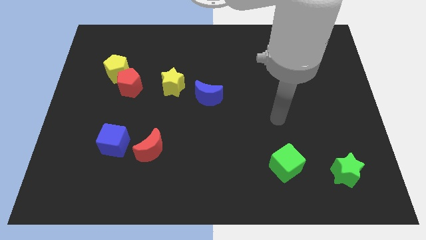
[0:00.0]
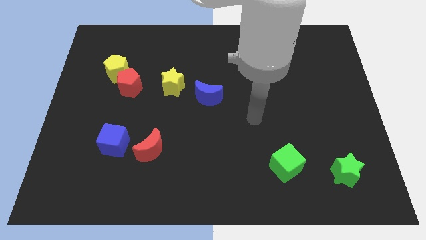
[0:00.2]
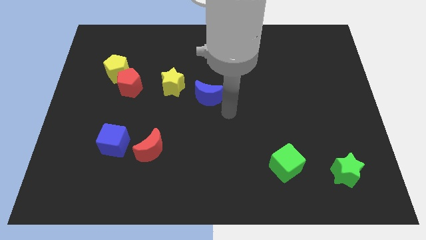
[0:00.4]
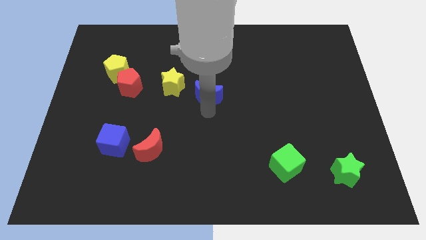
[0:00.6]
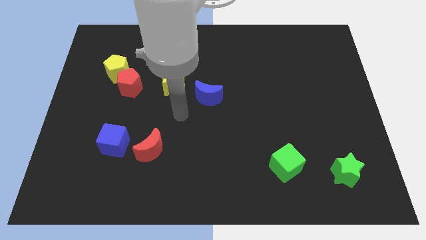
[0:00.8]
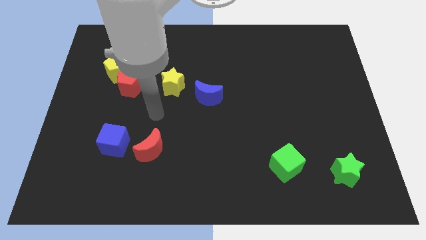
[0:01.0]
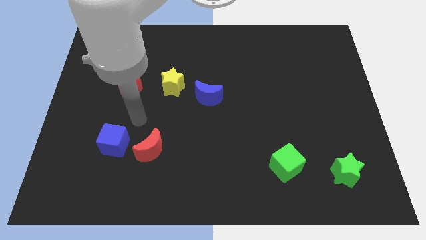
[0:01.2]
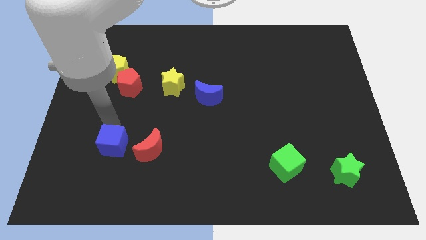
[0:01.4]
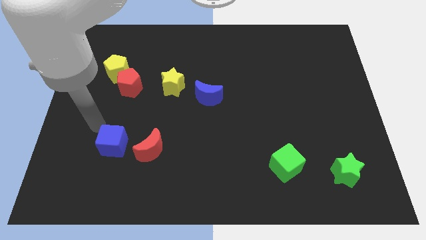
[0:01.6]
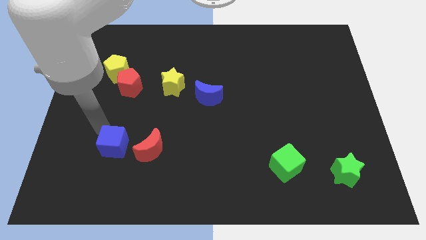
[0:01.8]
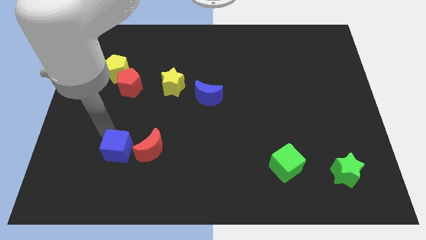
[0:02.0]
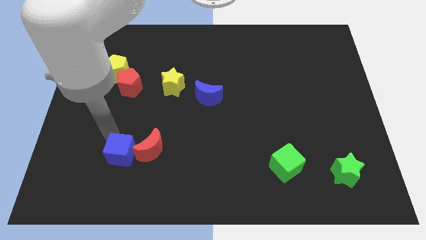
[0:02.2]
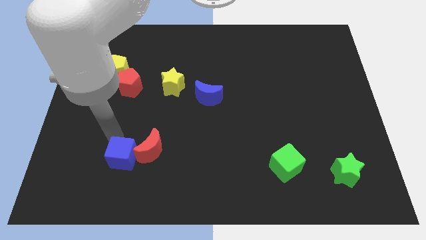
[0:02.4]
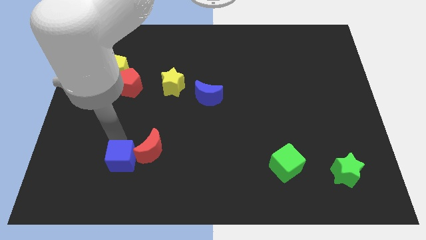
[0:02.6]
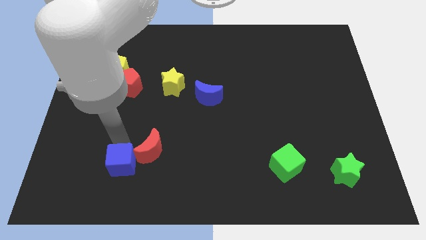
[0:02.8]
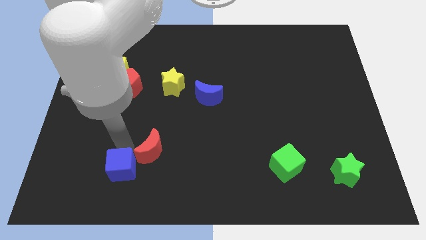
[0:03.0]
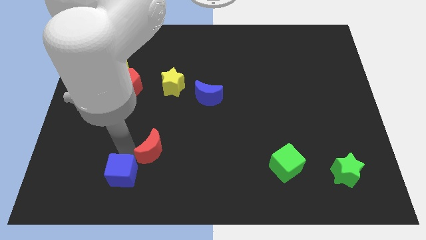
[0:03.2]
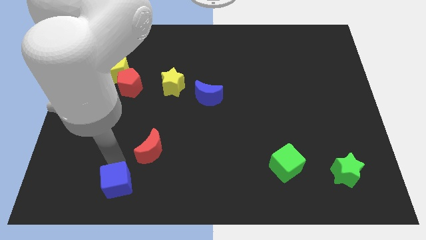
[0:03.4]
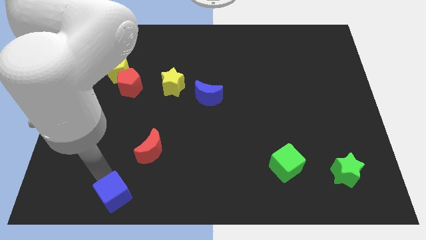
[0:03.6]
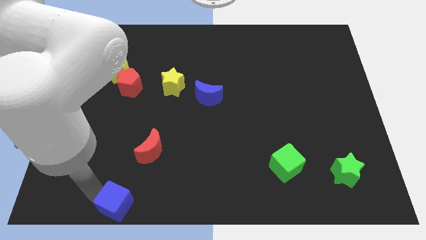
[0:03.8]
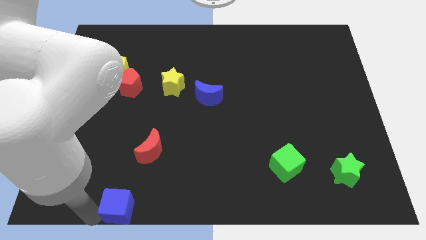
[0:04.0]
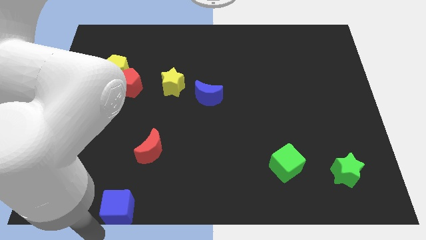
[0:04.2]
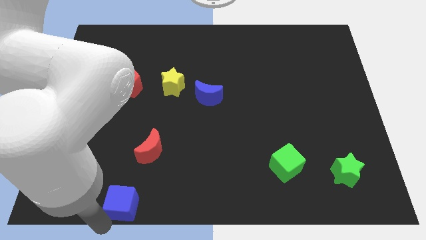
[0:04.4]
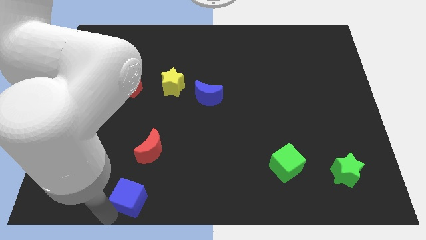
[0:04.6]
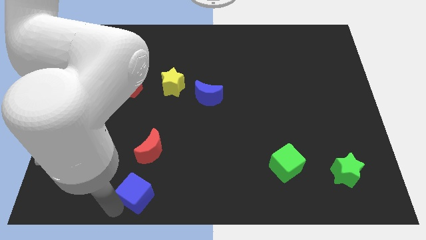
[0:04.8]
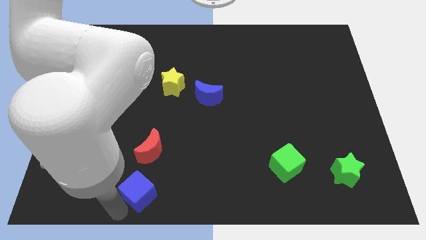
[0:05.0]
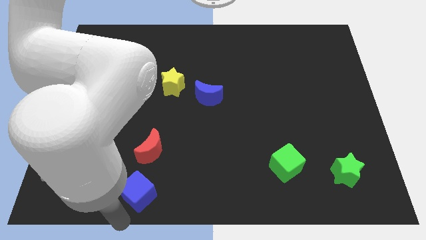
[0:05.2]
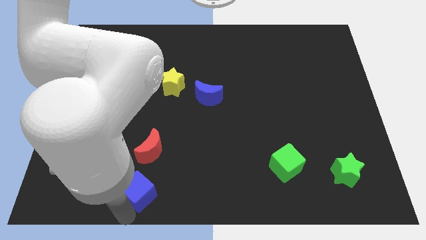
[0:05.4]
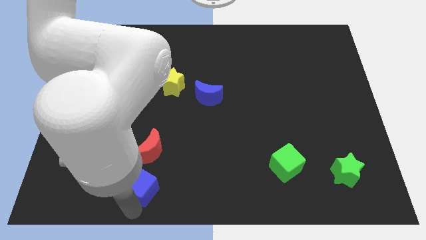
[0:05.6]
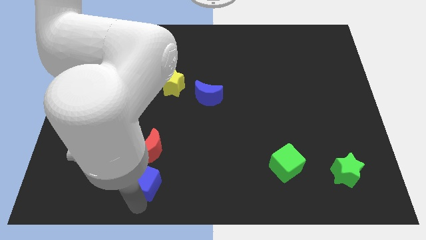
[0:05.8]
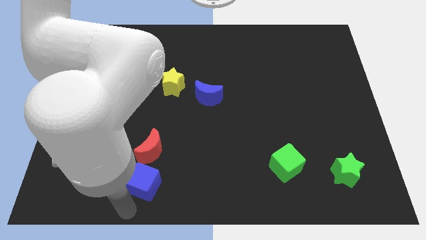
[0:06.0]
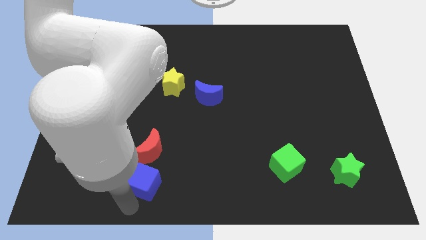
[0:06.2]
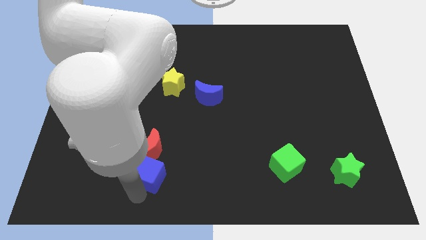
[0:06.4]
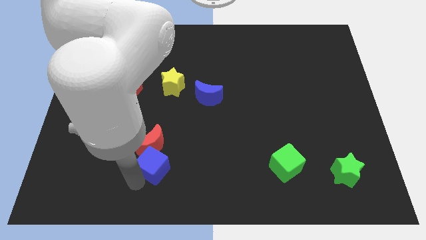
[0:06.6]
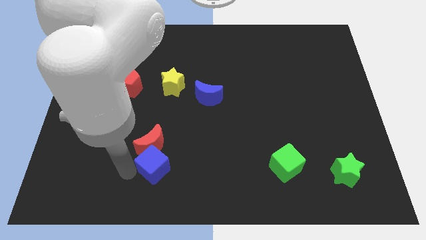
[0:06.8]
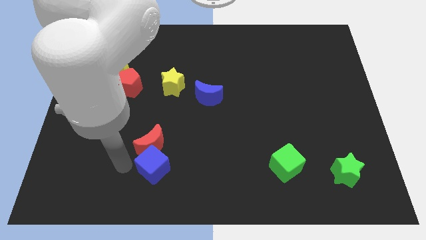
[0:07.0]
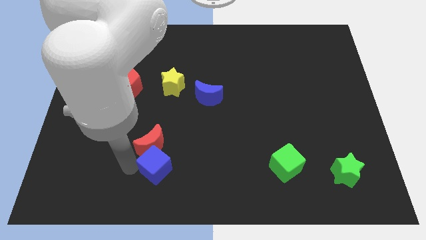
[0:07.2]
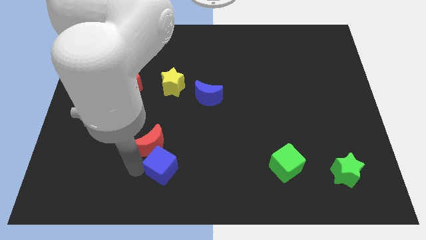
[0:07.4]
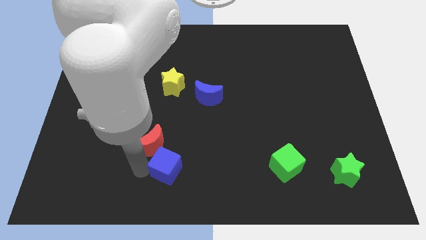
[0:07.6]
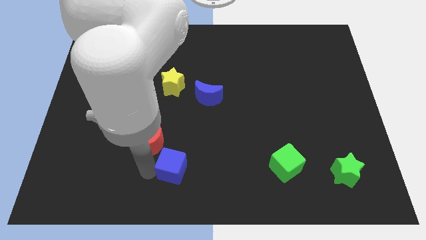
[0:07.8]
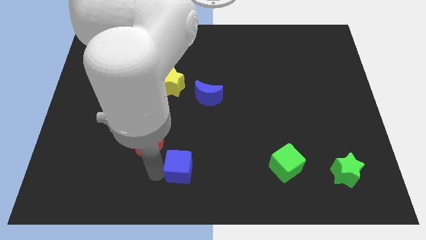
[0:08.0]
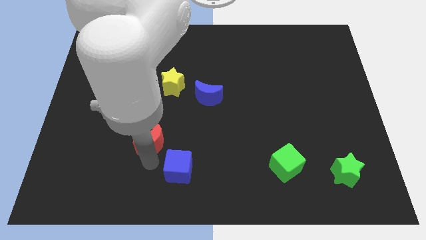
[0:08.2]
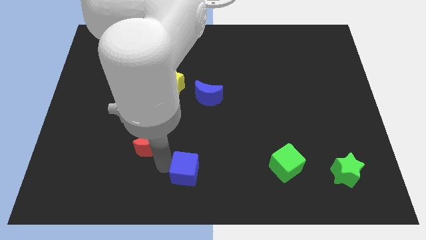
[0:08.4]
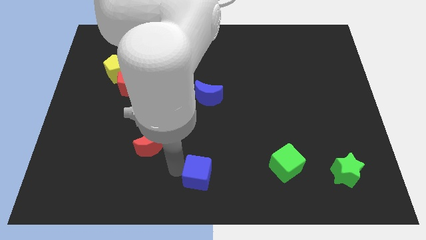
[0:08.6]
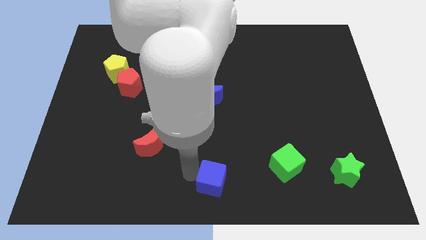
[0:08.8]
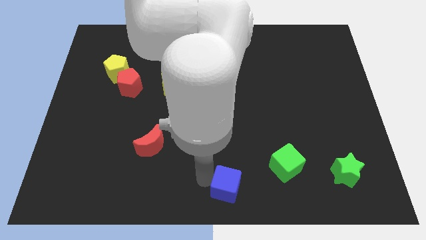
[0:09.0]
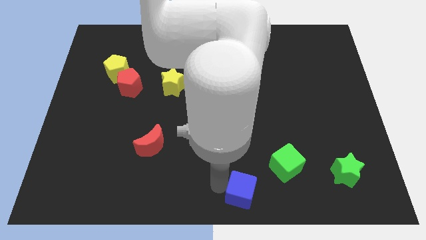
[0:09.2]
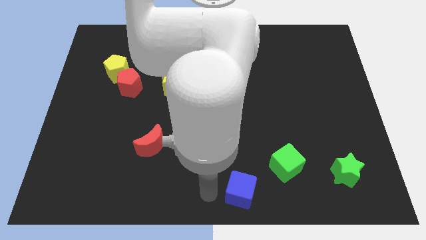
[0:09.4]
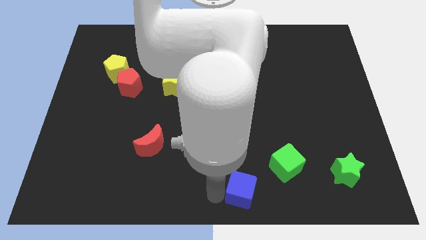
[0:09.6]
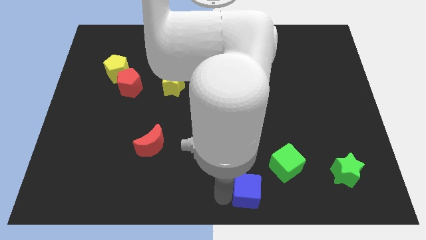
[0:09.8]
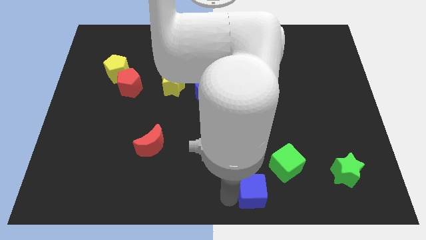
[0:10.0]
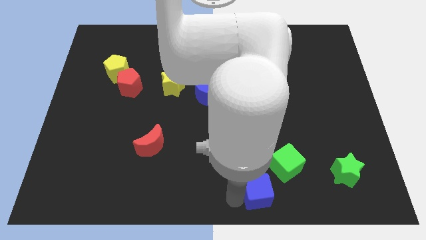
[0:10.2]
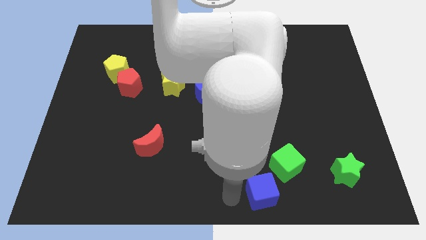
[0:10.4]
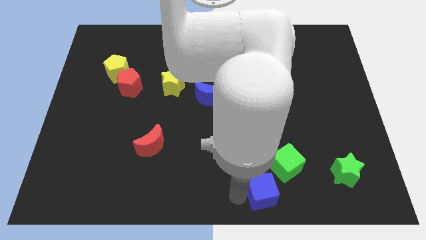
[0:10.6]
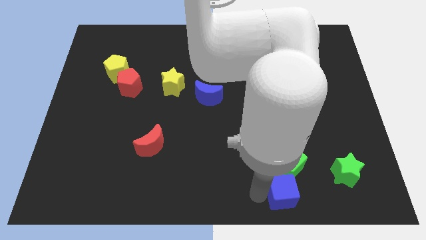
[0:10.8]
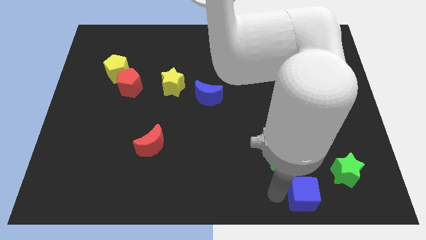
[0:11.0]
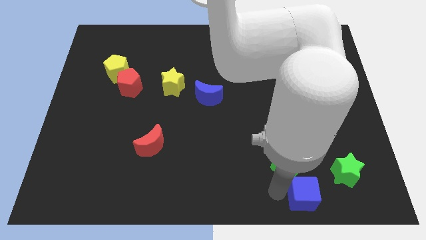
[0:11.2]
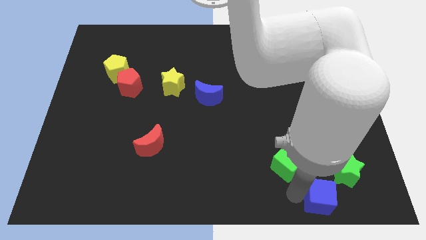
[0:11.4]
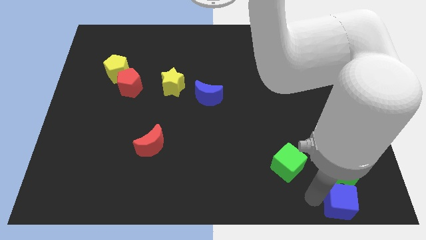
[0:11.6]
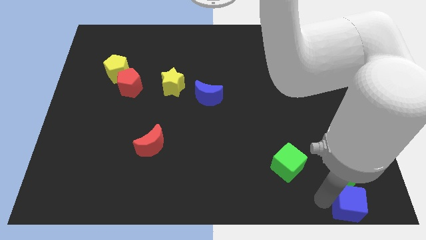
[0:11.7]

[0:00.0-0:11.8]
slide the blue cube to the bottom right

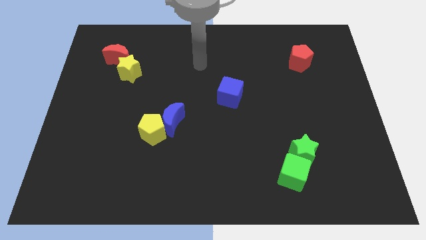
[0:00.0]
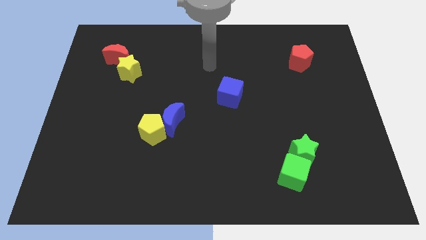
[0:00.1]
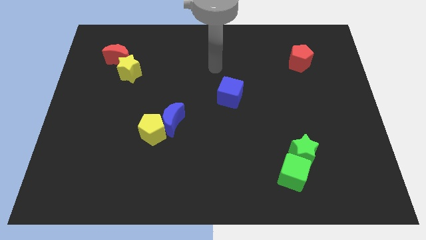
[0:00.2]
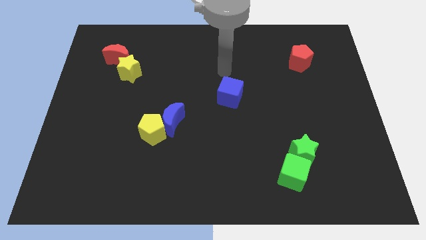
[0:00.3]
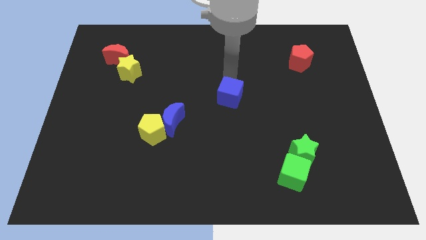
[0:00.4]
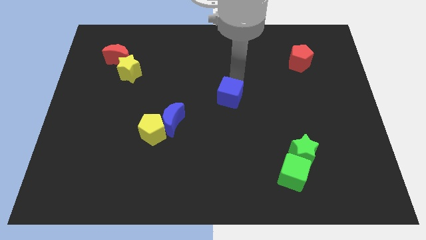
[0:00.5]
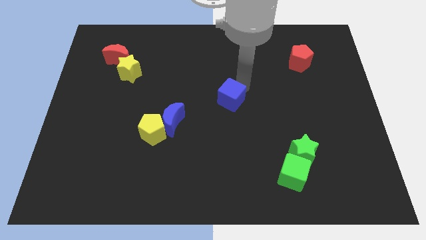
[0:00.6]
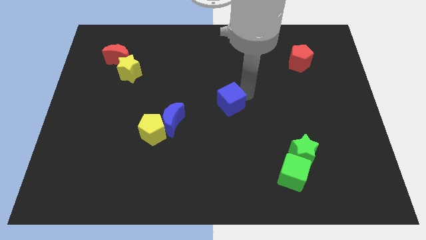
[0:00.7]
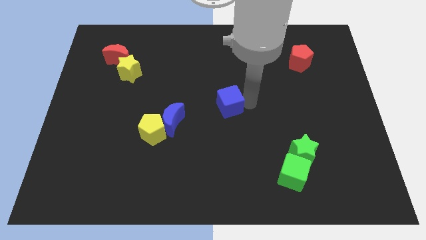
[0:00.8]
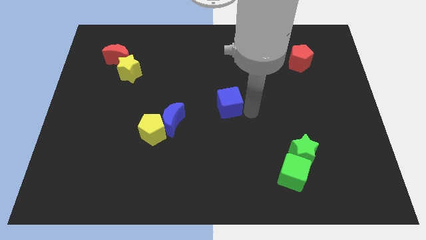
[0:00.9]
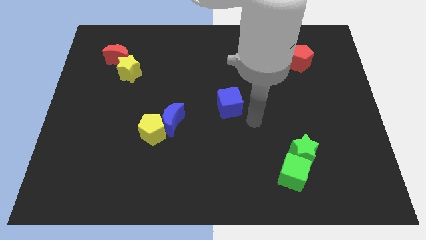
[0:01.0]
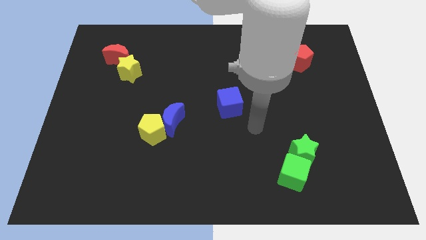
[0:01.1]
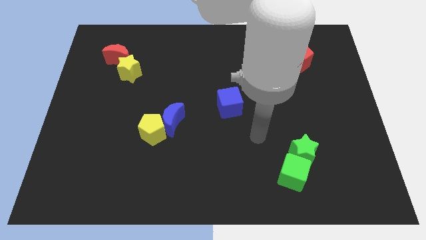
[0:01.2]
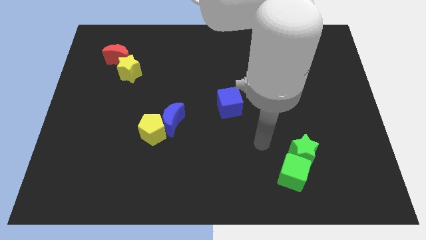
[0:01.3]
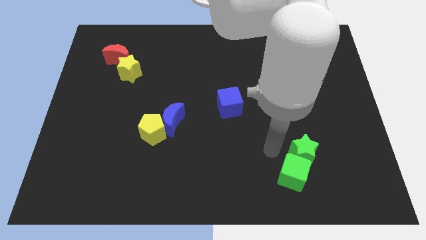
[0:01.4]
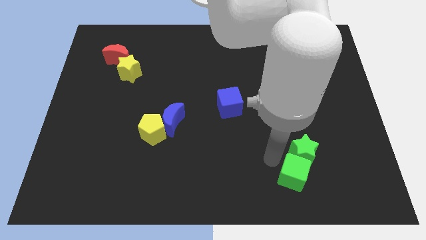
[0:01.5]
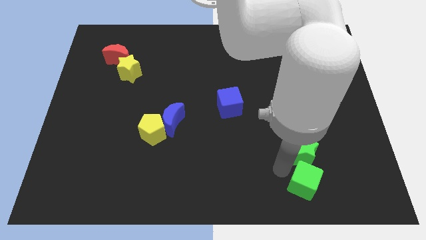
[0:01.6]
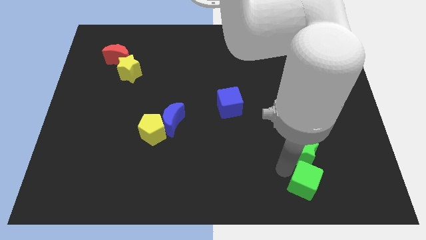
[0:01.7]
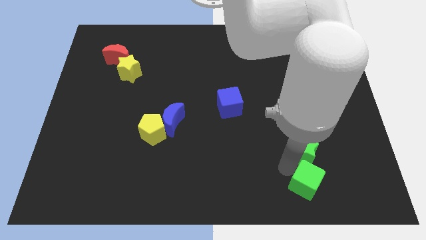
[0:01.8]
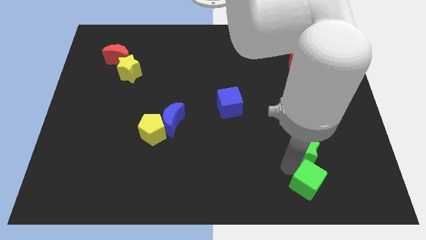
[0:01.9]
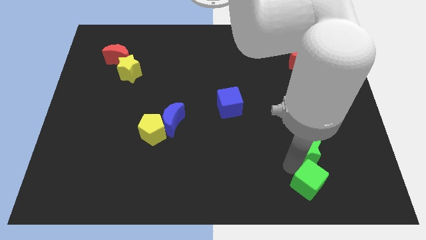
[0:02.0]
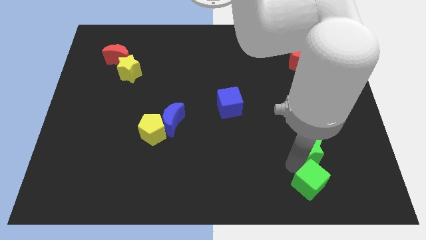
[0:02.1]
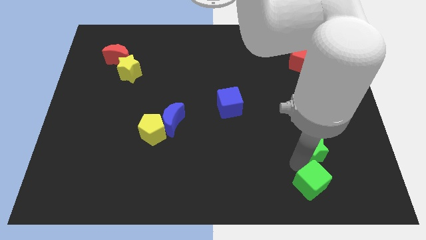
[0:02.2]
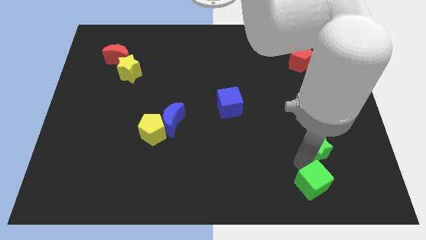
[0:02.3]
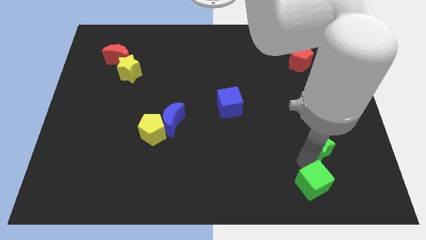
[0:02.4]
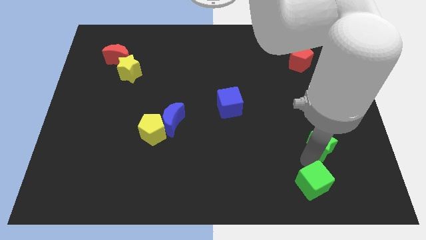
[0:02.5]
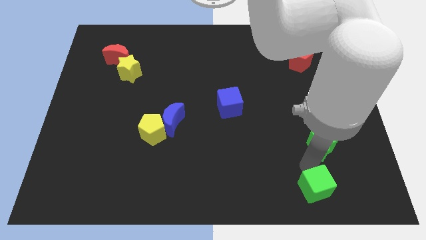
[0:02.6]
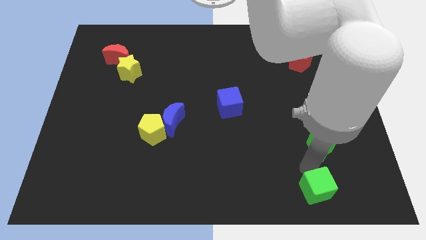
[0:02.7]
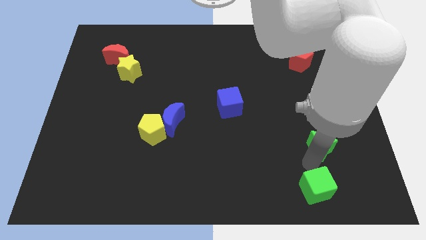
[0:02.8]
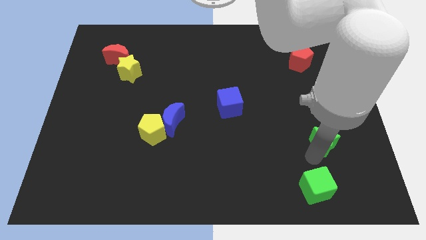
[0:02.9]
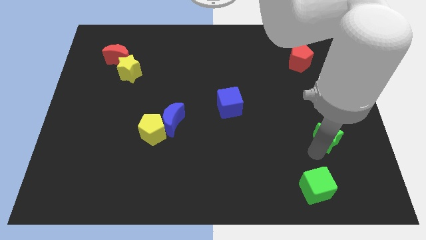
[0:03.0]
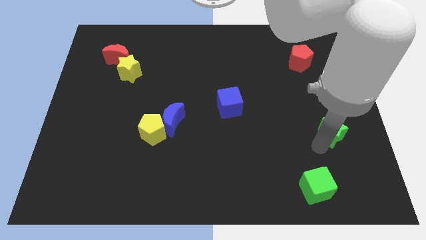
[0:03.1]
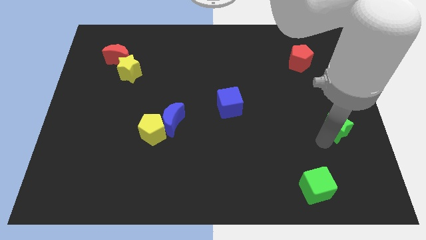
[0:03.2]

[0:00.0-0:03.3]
move the green star to the center right
